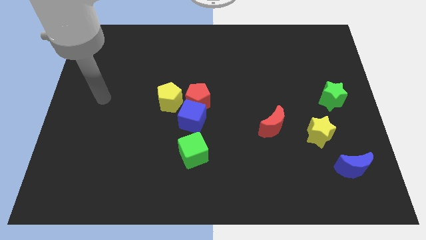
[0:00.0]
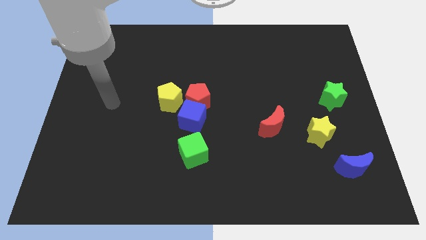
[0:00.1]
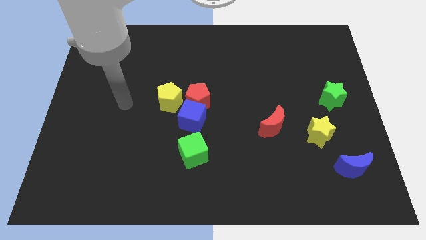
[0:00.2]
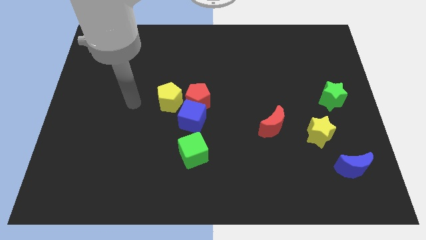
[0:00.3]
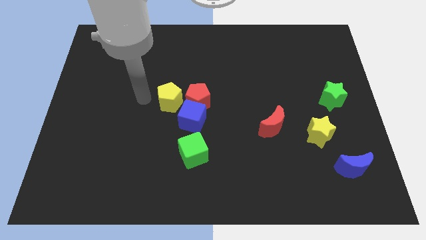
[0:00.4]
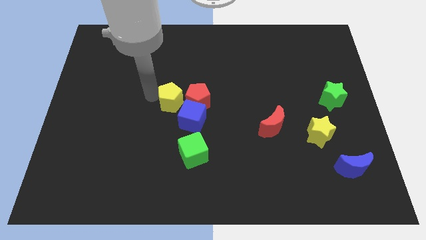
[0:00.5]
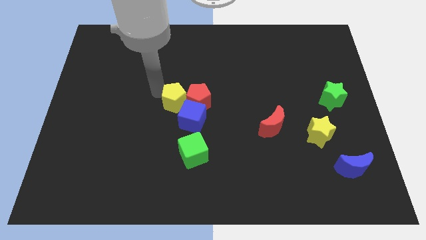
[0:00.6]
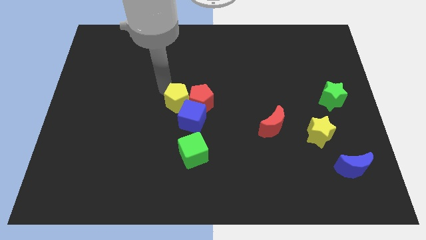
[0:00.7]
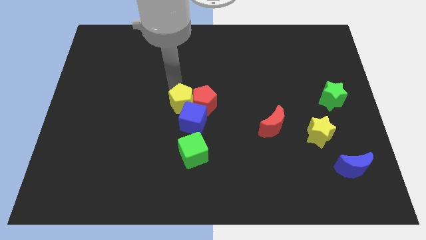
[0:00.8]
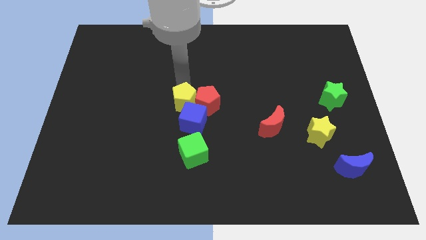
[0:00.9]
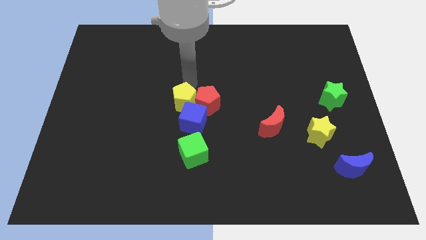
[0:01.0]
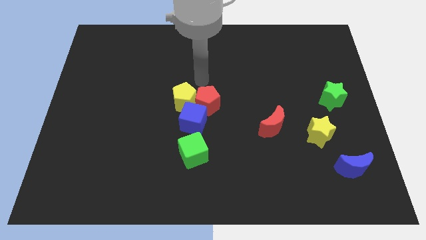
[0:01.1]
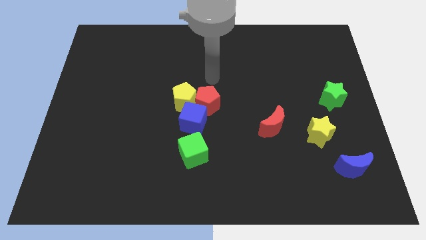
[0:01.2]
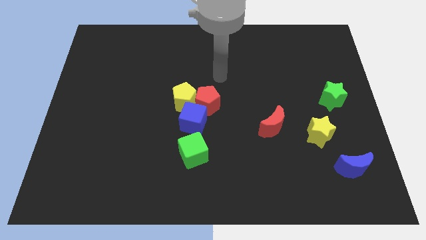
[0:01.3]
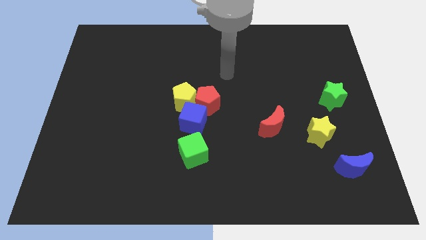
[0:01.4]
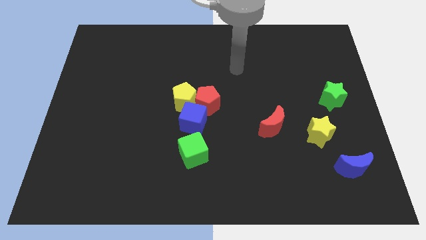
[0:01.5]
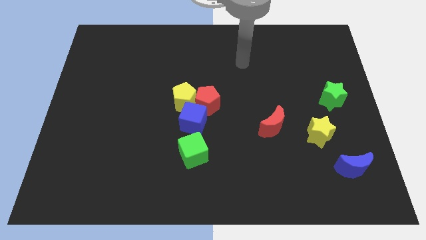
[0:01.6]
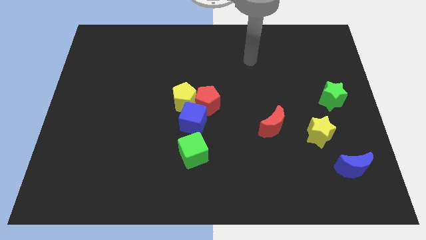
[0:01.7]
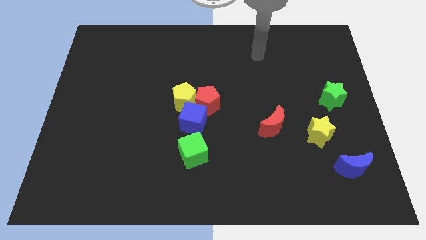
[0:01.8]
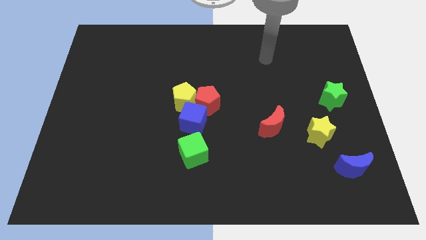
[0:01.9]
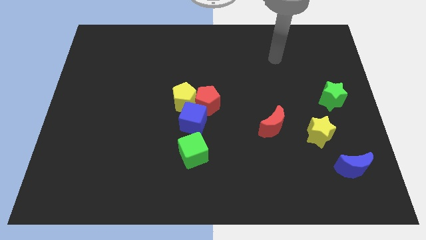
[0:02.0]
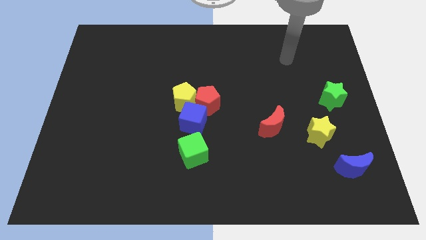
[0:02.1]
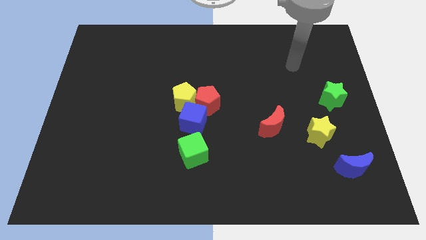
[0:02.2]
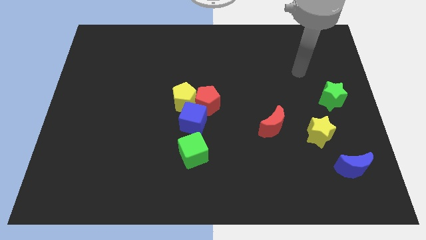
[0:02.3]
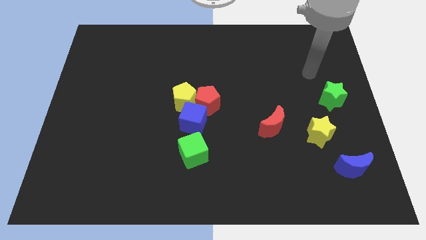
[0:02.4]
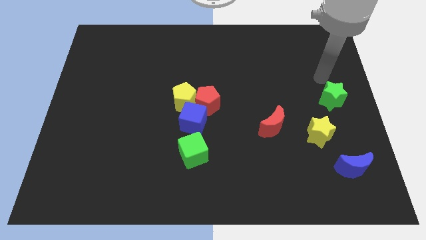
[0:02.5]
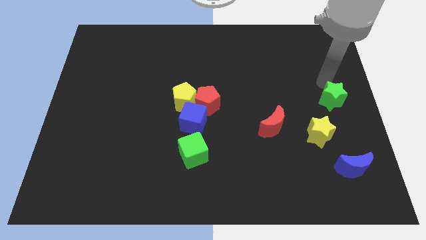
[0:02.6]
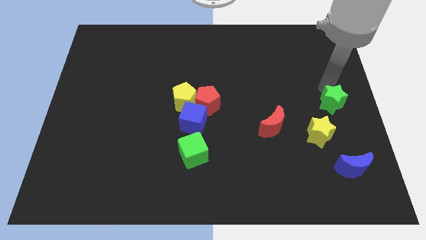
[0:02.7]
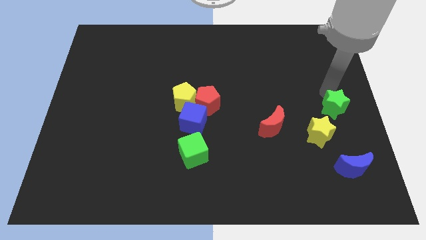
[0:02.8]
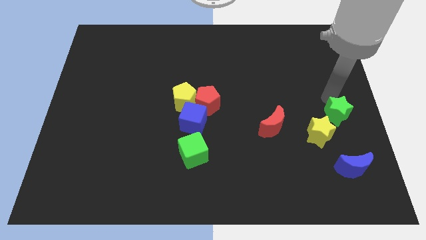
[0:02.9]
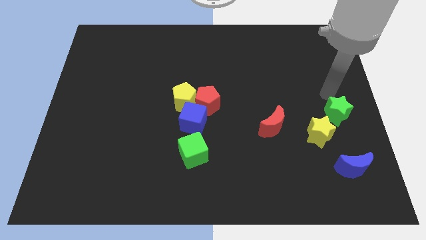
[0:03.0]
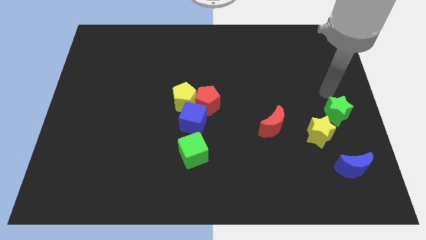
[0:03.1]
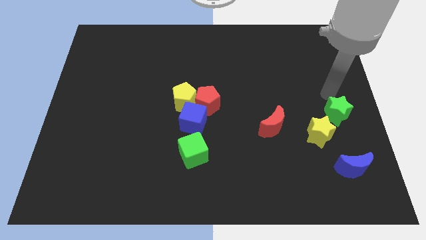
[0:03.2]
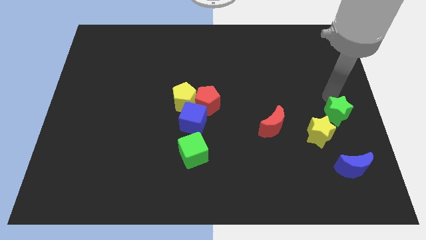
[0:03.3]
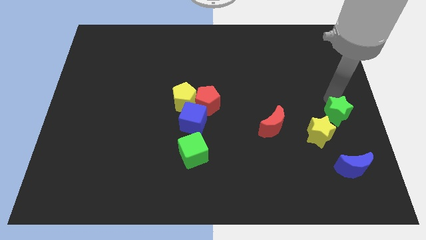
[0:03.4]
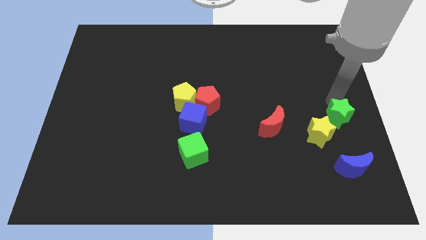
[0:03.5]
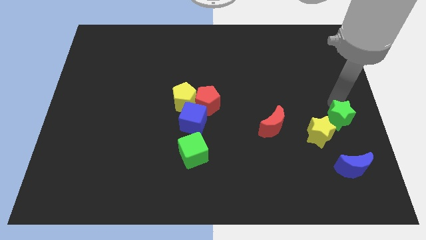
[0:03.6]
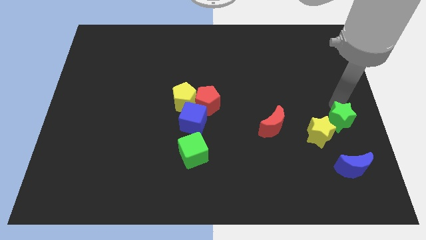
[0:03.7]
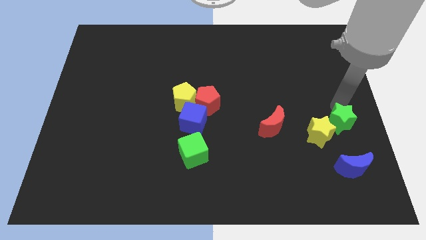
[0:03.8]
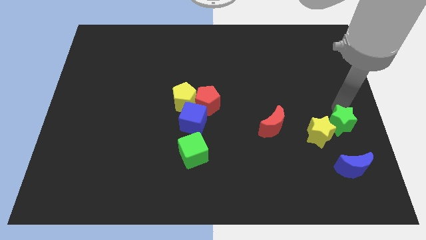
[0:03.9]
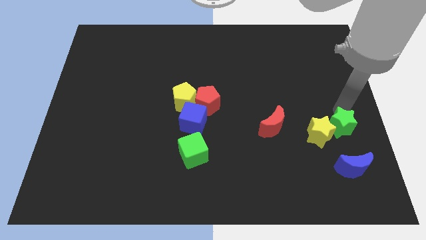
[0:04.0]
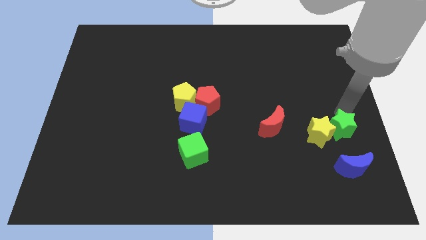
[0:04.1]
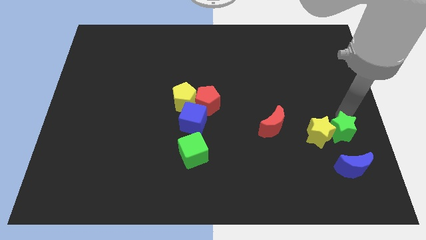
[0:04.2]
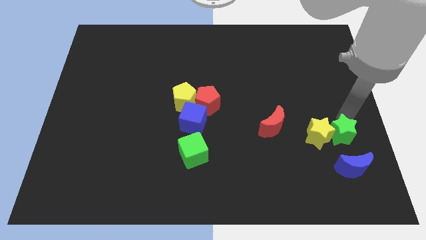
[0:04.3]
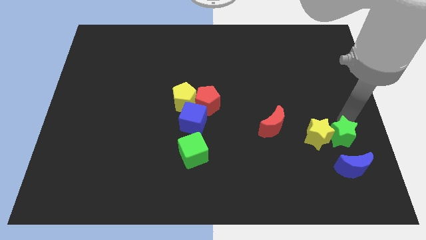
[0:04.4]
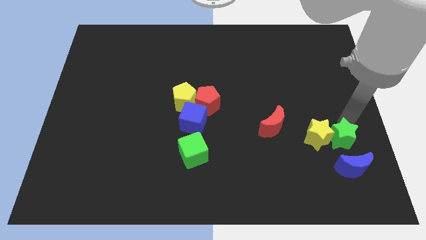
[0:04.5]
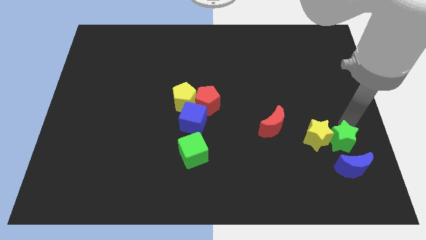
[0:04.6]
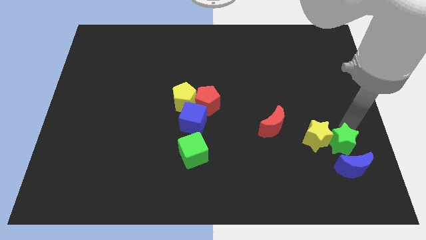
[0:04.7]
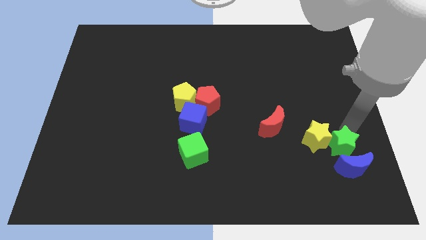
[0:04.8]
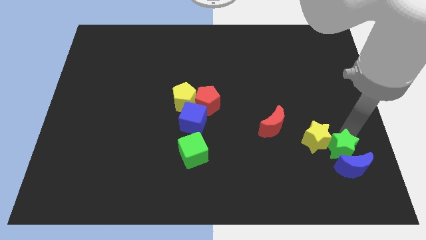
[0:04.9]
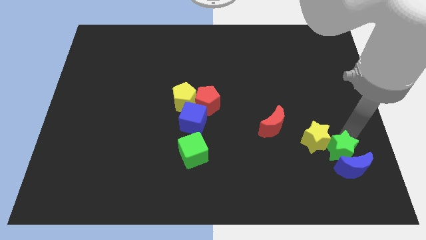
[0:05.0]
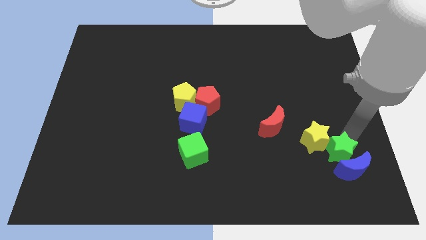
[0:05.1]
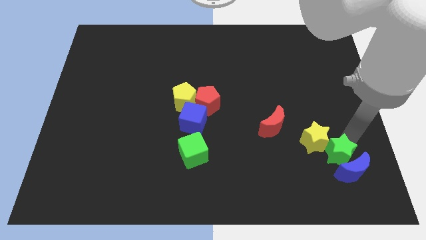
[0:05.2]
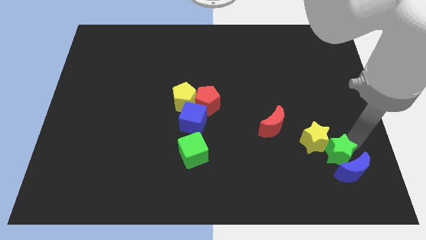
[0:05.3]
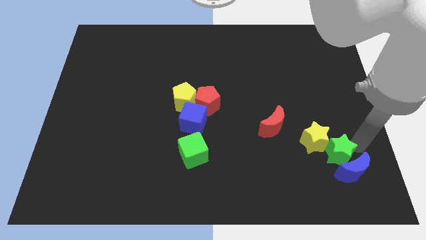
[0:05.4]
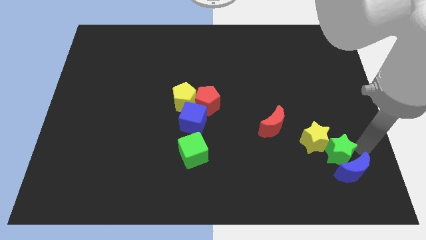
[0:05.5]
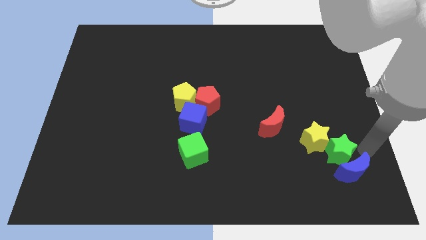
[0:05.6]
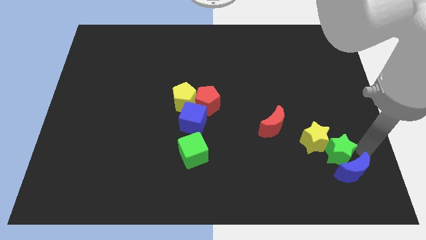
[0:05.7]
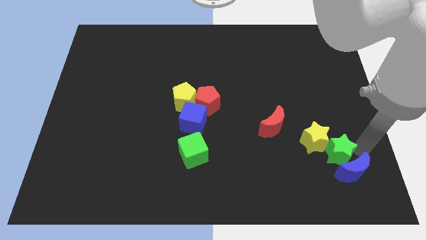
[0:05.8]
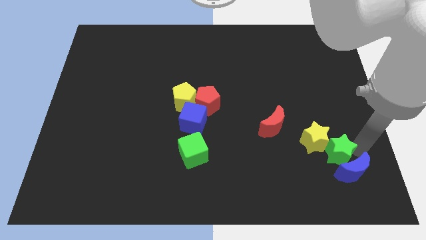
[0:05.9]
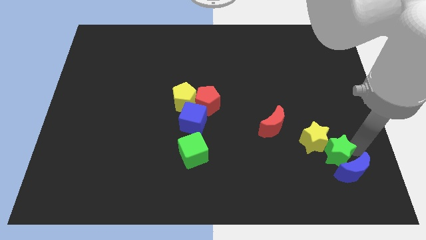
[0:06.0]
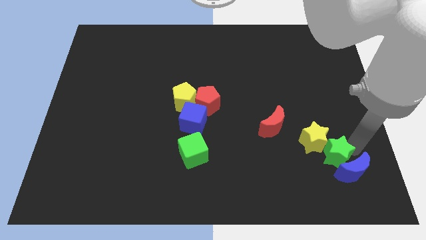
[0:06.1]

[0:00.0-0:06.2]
push the green star to the left of the blue moon

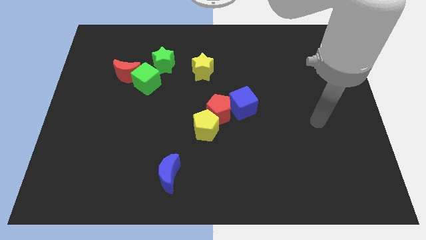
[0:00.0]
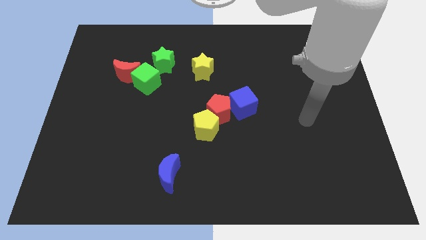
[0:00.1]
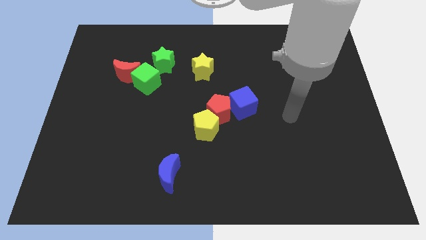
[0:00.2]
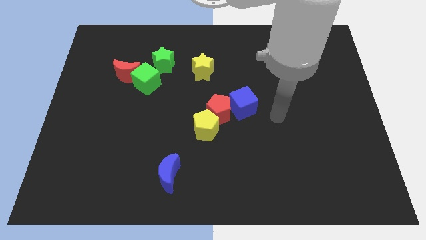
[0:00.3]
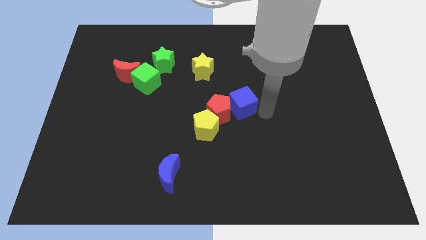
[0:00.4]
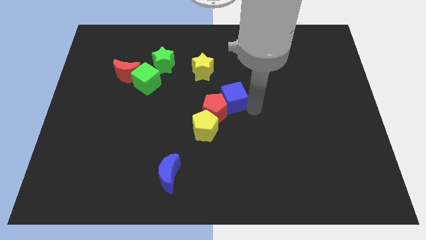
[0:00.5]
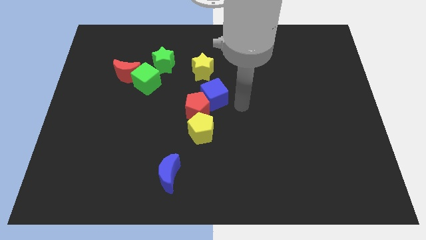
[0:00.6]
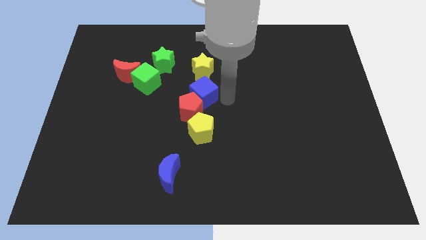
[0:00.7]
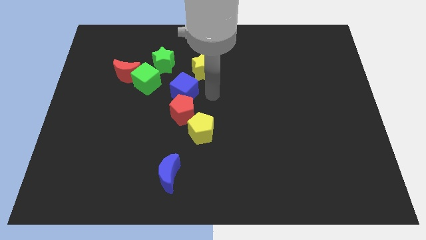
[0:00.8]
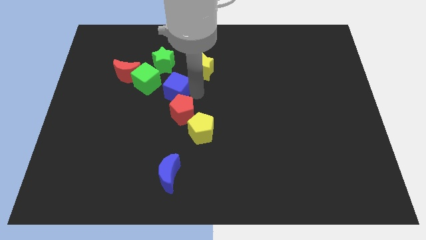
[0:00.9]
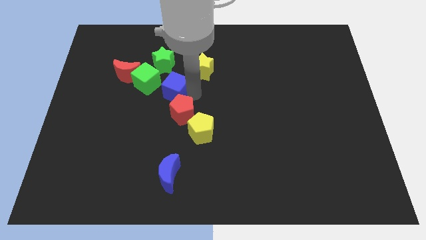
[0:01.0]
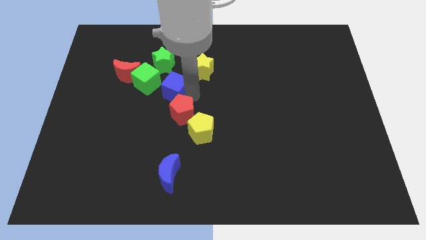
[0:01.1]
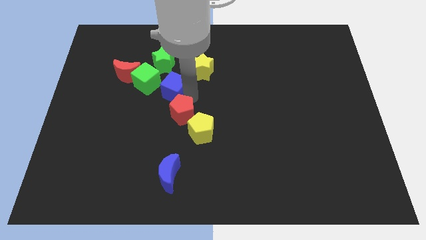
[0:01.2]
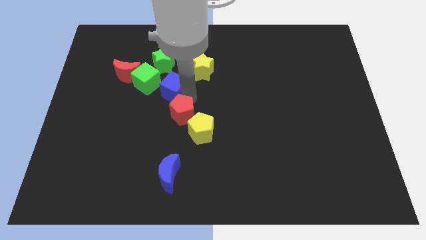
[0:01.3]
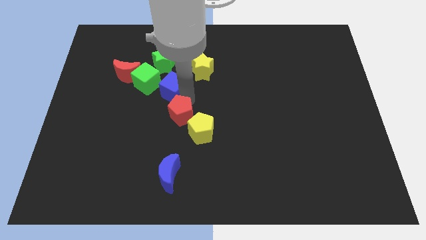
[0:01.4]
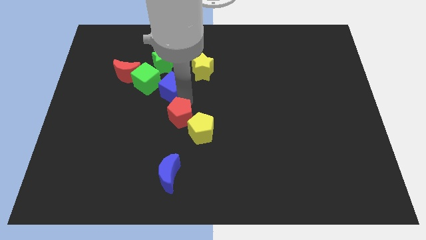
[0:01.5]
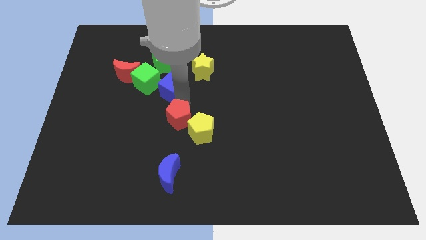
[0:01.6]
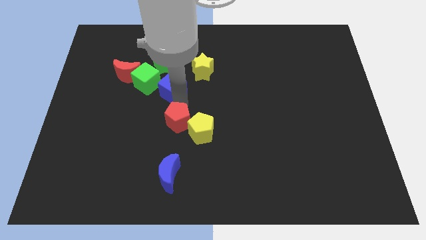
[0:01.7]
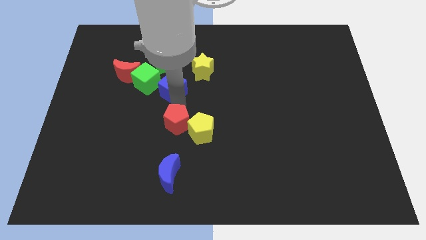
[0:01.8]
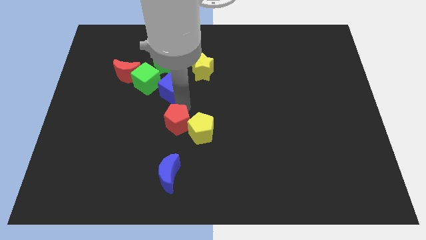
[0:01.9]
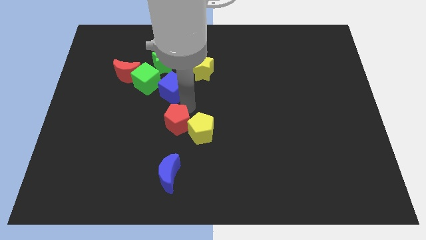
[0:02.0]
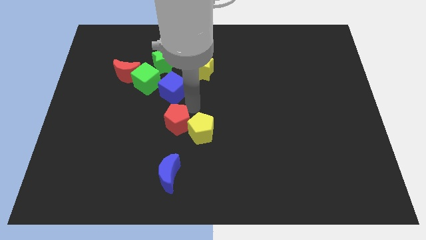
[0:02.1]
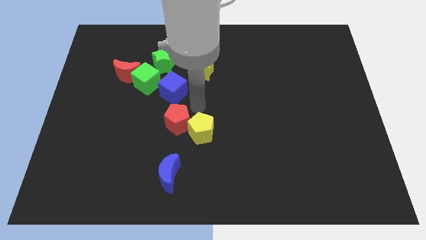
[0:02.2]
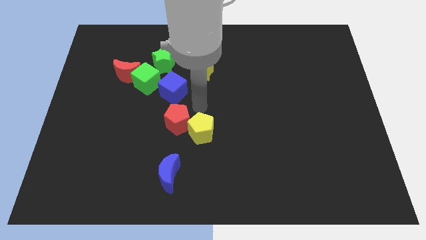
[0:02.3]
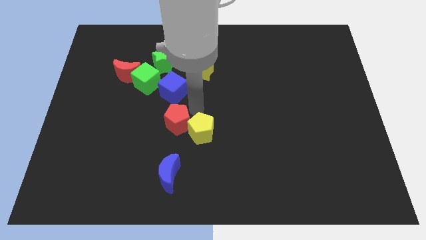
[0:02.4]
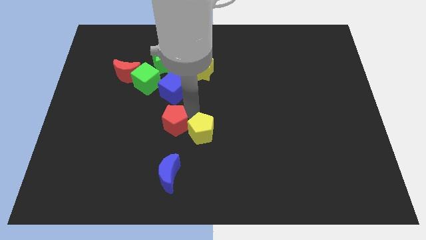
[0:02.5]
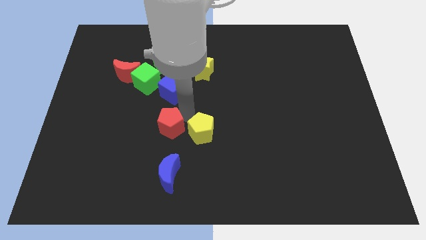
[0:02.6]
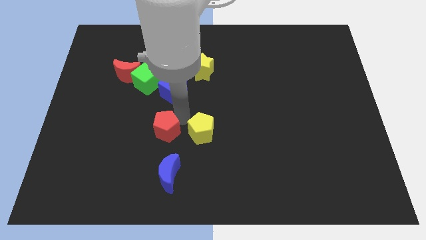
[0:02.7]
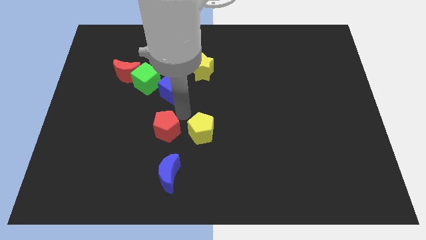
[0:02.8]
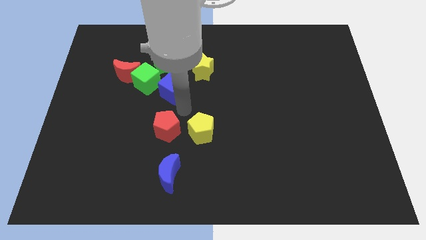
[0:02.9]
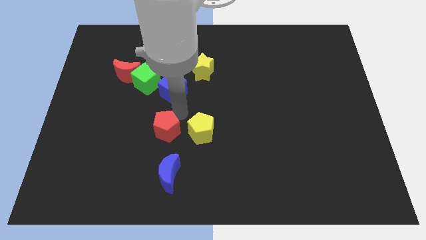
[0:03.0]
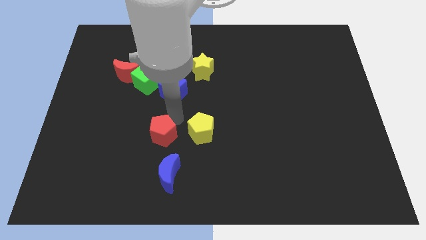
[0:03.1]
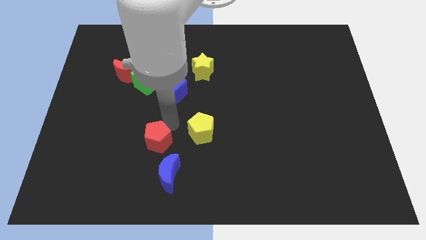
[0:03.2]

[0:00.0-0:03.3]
move the red pentagon to the top left of the blue moon
